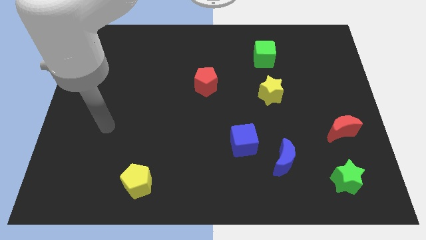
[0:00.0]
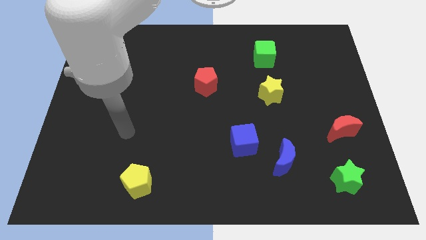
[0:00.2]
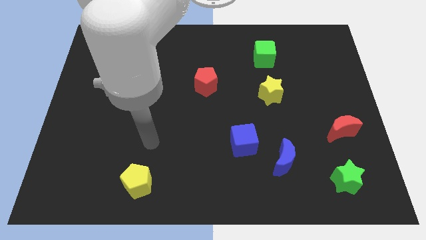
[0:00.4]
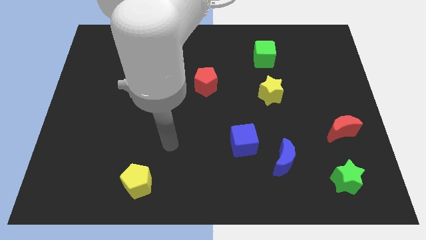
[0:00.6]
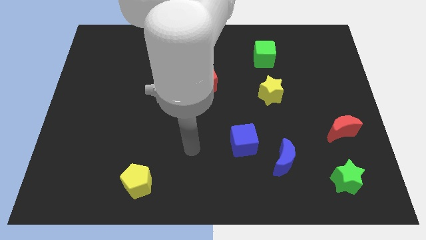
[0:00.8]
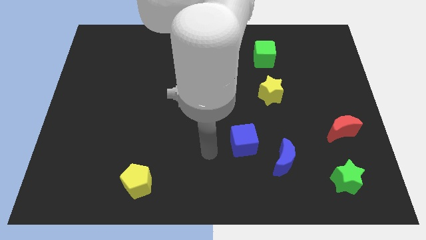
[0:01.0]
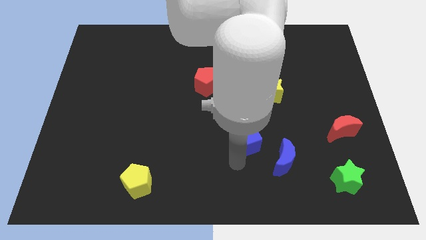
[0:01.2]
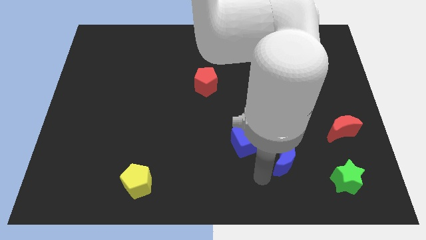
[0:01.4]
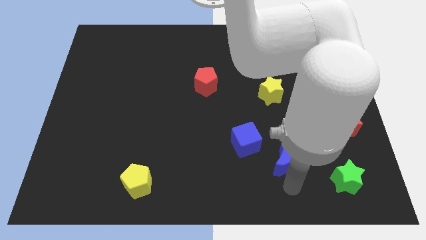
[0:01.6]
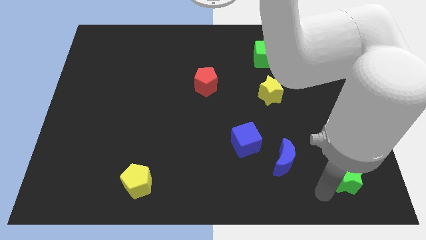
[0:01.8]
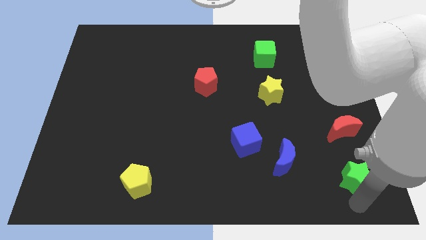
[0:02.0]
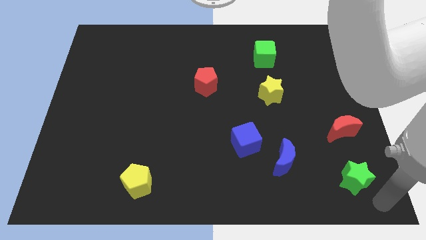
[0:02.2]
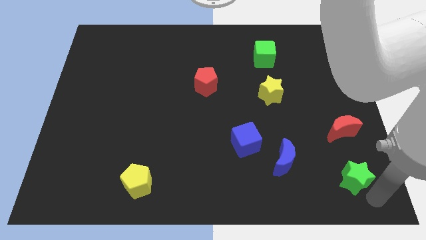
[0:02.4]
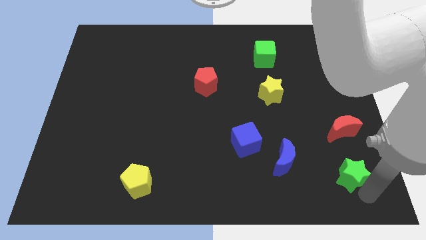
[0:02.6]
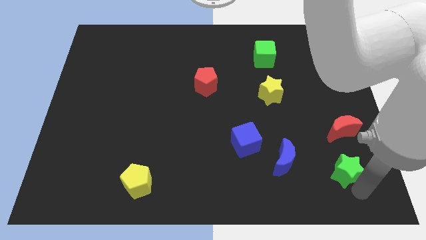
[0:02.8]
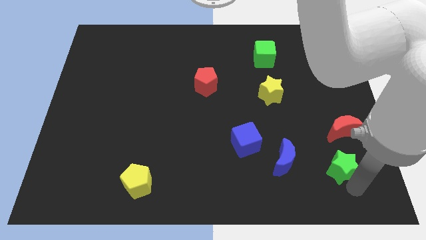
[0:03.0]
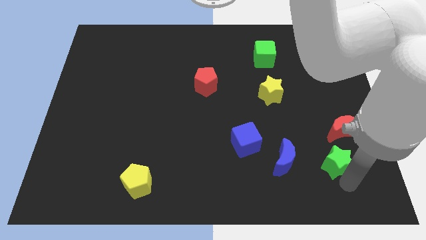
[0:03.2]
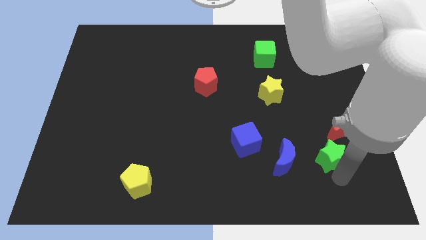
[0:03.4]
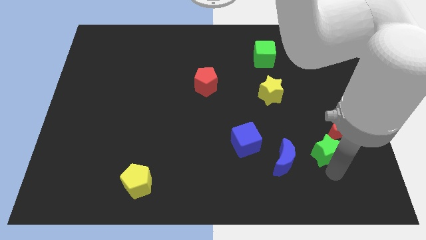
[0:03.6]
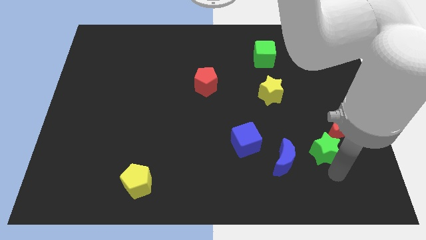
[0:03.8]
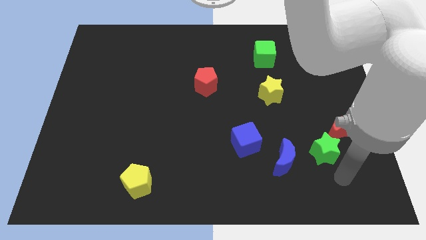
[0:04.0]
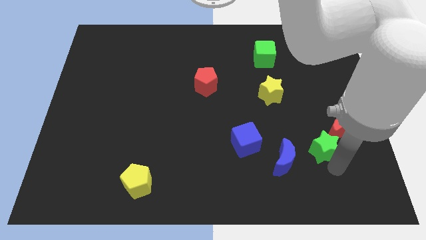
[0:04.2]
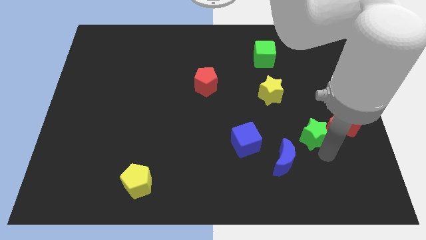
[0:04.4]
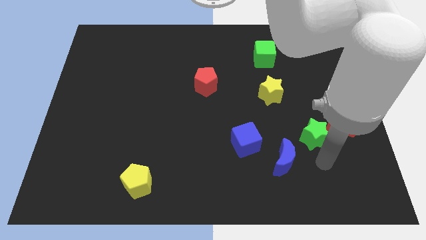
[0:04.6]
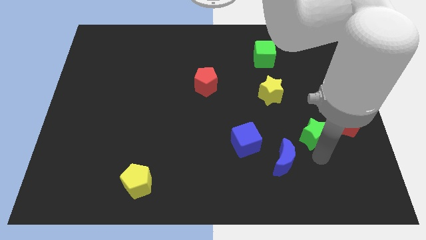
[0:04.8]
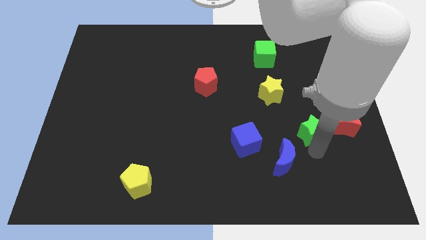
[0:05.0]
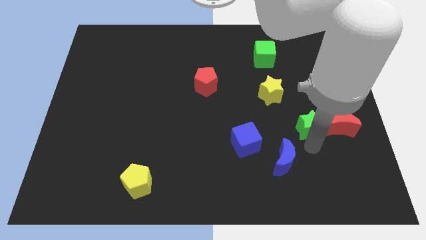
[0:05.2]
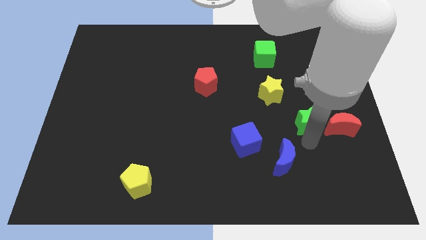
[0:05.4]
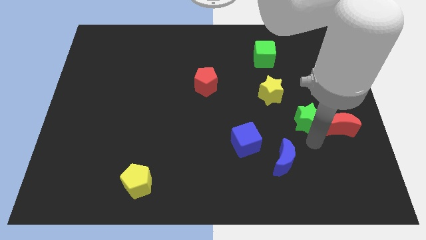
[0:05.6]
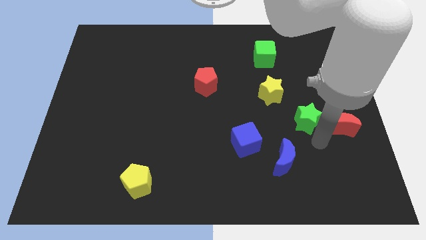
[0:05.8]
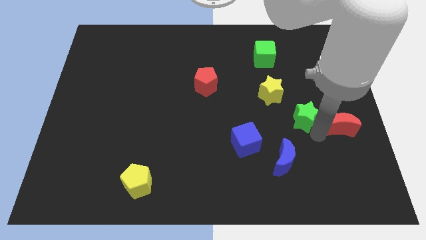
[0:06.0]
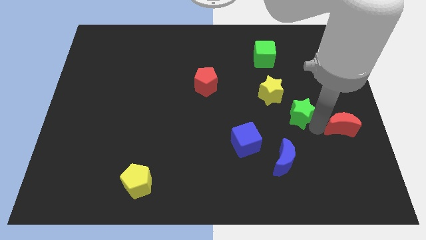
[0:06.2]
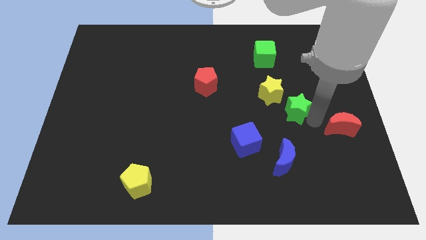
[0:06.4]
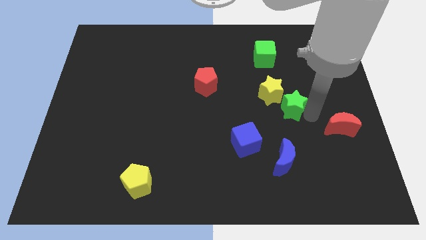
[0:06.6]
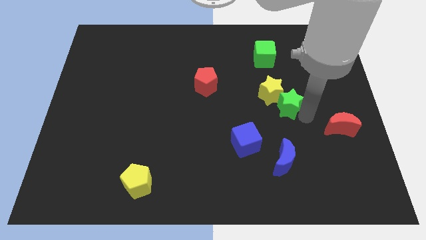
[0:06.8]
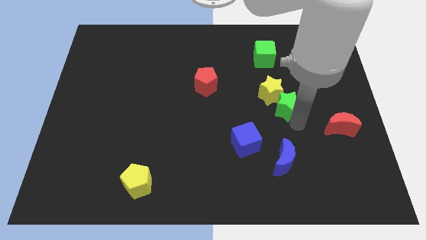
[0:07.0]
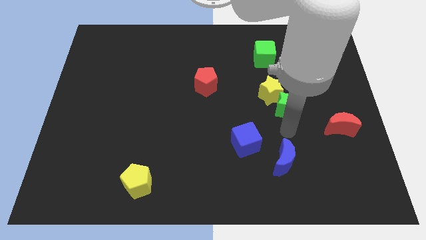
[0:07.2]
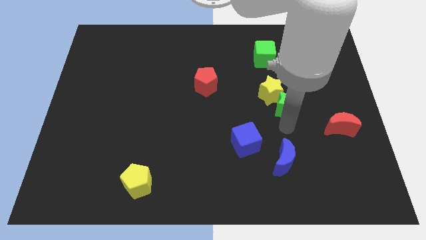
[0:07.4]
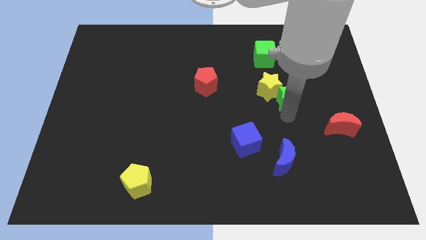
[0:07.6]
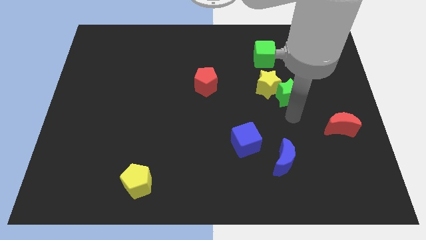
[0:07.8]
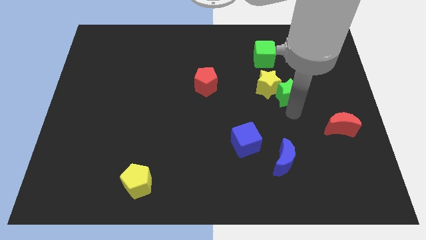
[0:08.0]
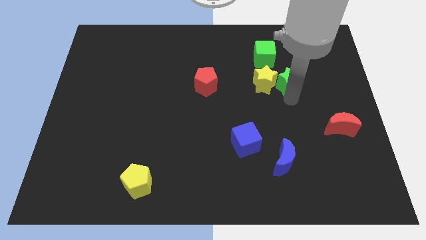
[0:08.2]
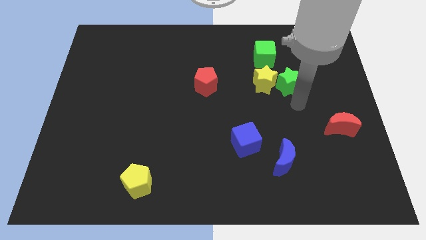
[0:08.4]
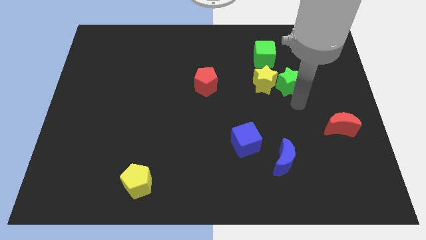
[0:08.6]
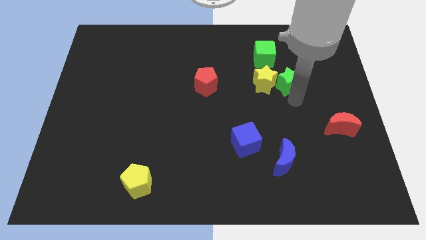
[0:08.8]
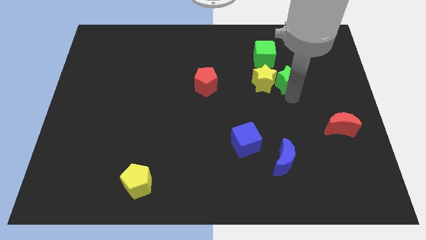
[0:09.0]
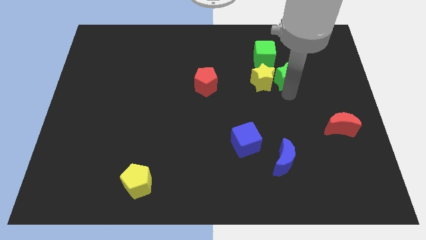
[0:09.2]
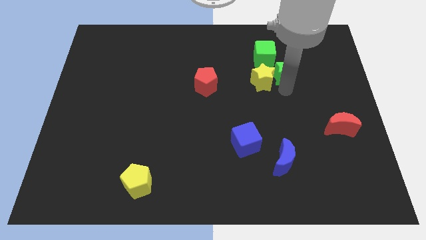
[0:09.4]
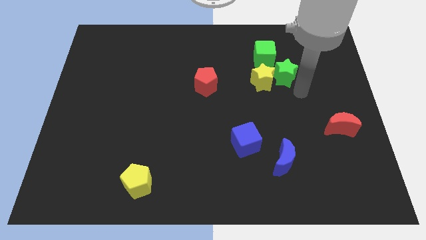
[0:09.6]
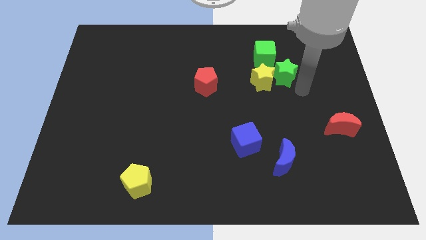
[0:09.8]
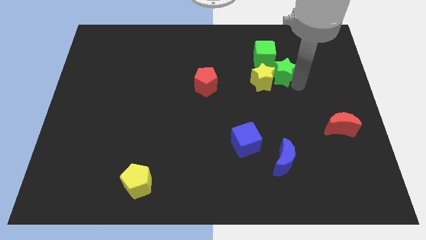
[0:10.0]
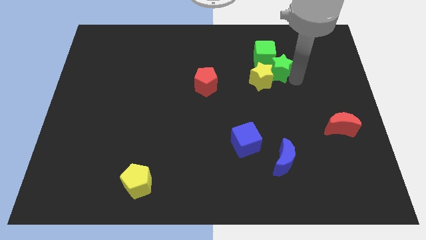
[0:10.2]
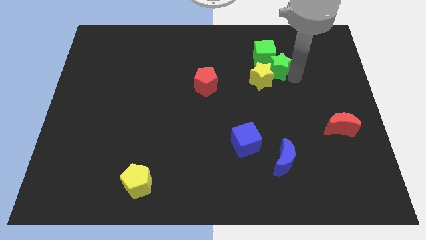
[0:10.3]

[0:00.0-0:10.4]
move the green star towards the green cube

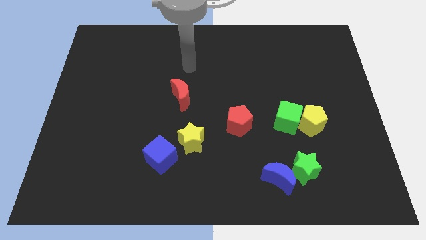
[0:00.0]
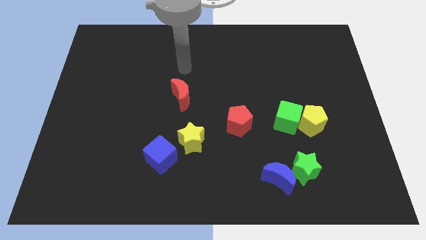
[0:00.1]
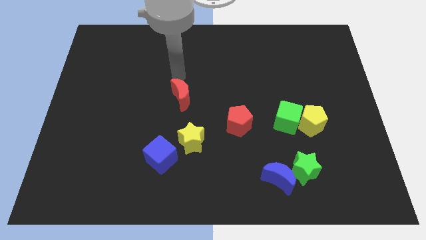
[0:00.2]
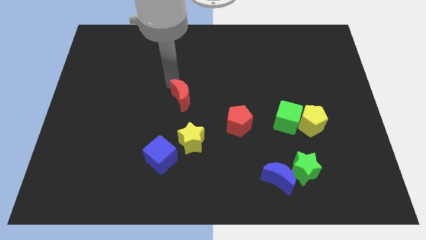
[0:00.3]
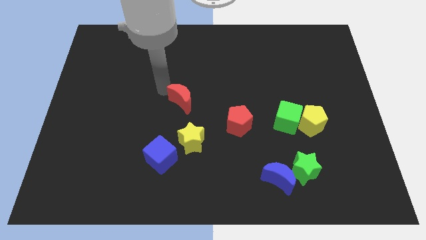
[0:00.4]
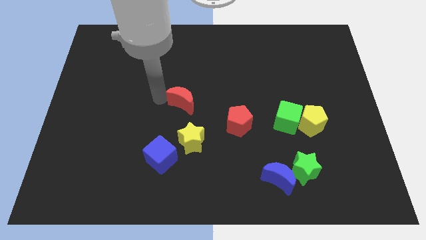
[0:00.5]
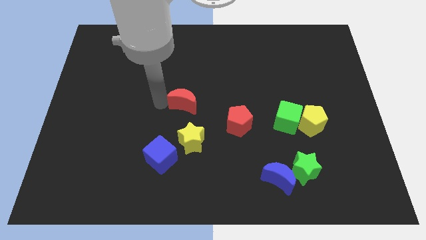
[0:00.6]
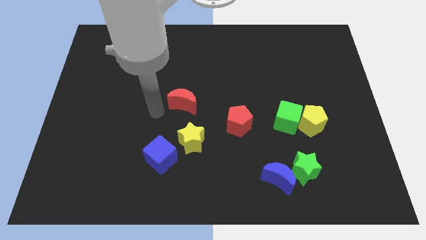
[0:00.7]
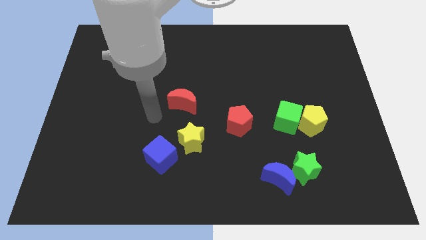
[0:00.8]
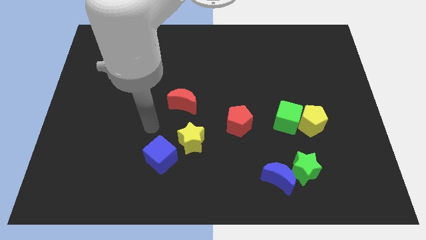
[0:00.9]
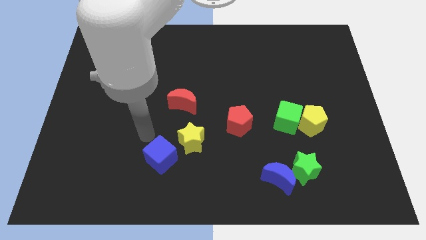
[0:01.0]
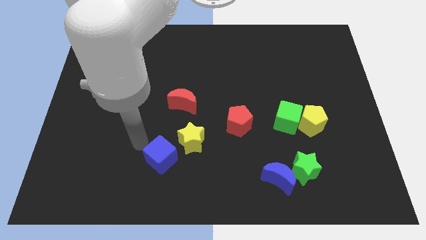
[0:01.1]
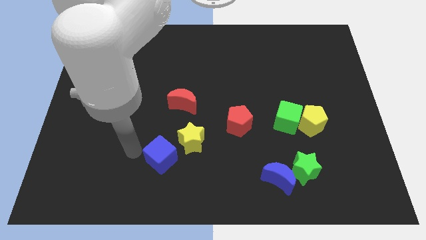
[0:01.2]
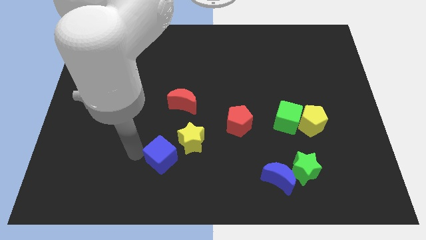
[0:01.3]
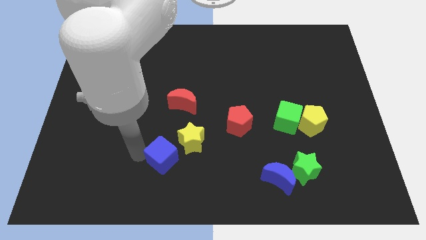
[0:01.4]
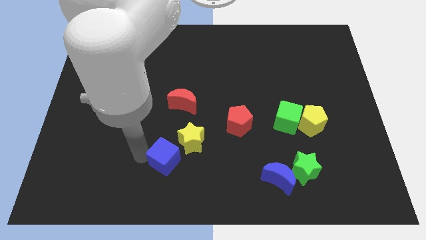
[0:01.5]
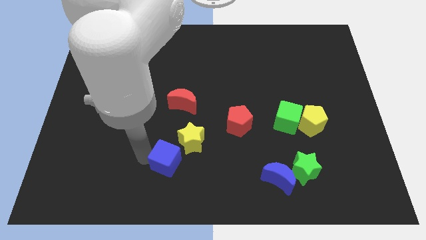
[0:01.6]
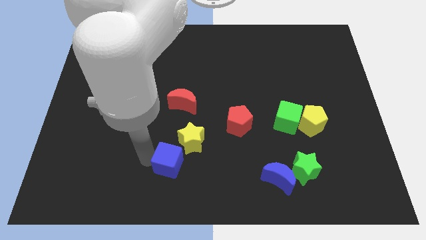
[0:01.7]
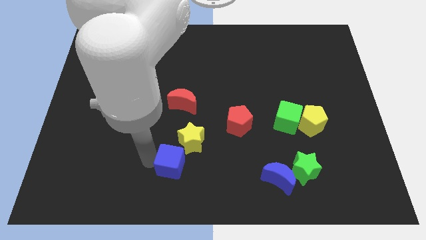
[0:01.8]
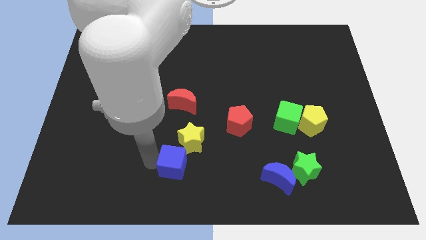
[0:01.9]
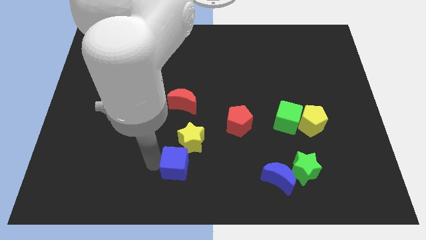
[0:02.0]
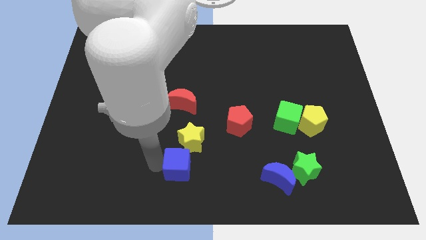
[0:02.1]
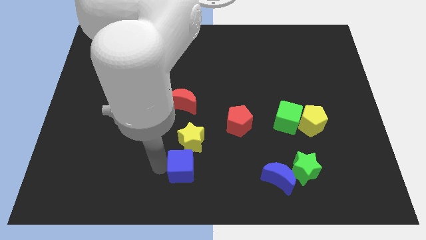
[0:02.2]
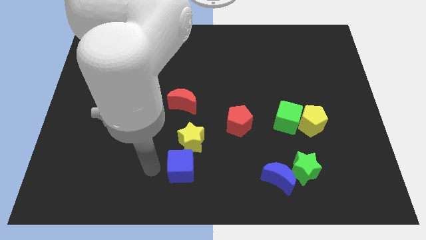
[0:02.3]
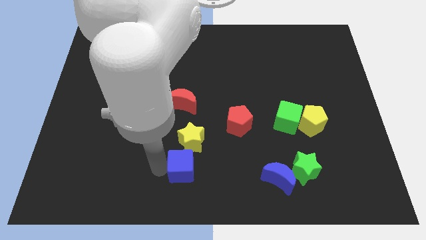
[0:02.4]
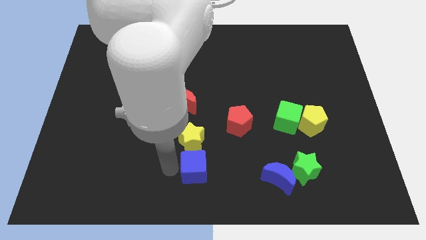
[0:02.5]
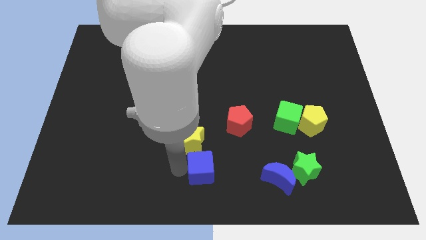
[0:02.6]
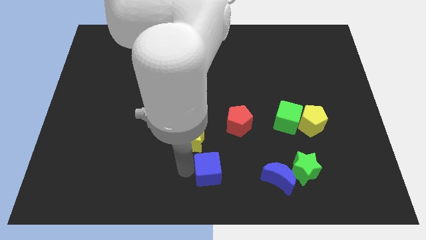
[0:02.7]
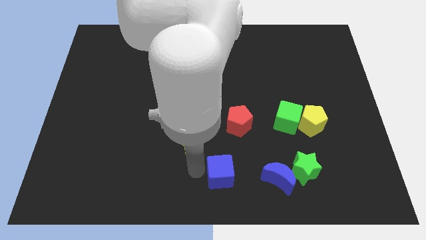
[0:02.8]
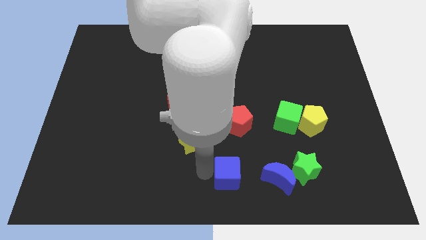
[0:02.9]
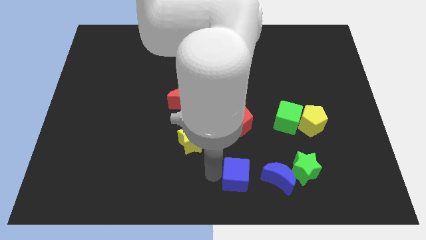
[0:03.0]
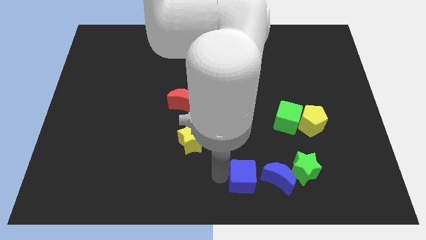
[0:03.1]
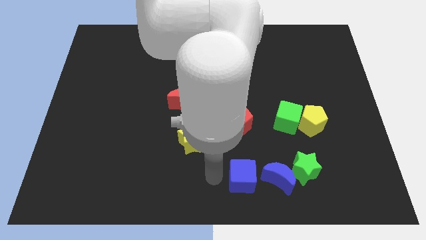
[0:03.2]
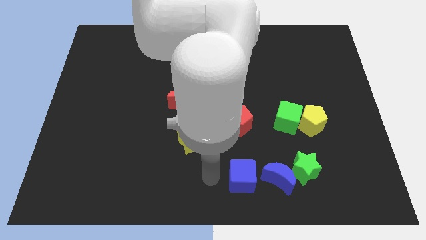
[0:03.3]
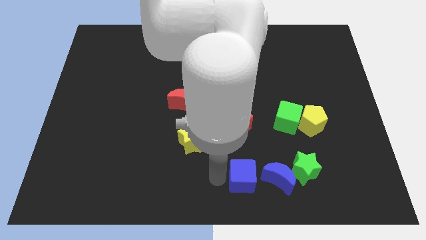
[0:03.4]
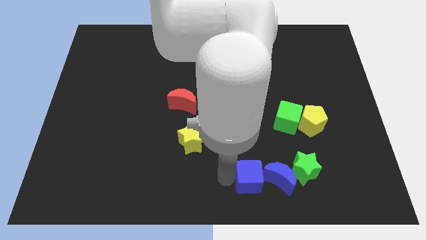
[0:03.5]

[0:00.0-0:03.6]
push the blue cube next to the blue moon
